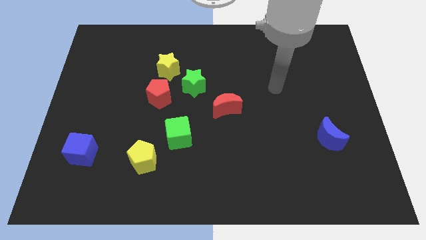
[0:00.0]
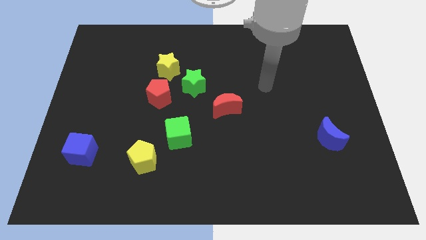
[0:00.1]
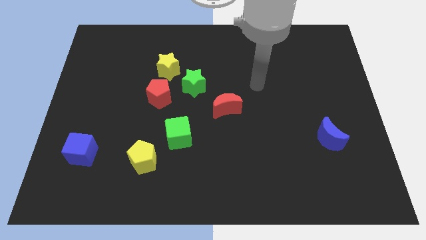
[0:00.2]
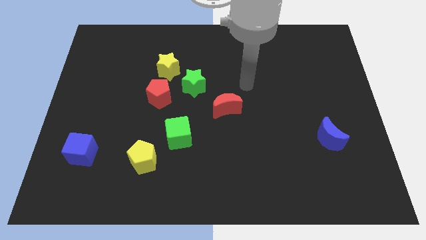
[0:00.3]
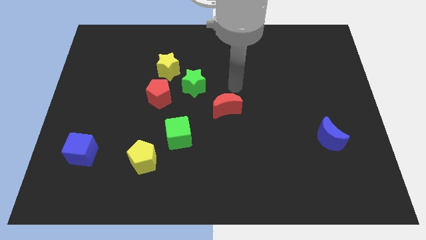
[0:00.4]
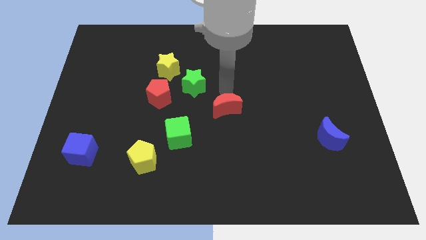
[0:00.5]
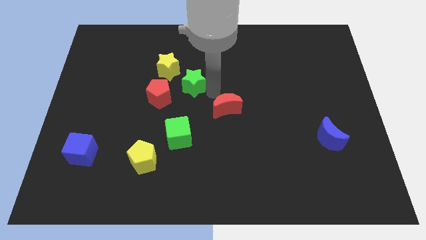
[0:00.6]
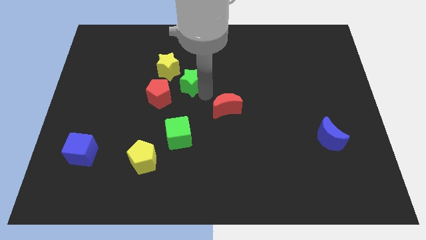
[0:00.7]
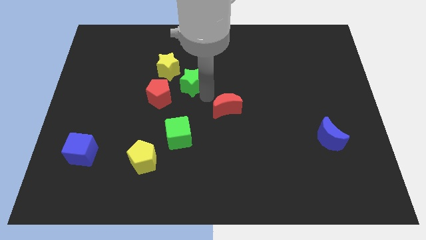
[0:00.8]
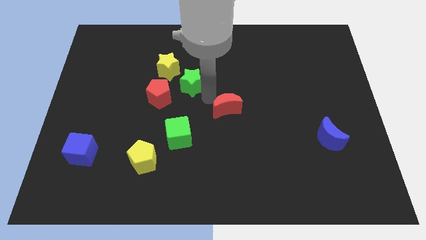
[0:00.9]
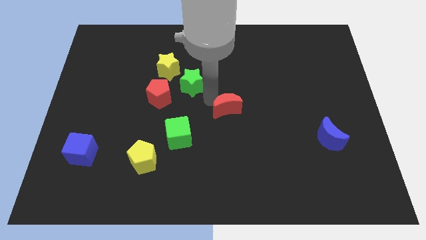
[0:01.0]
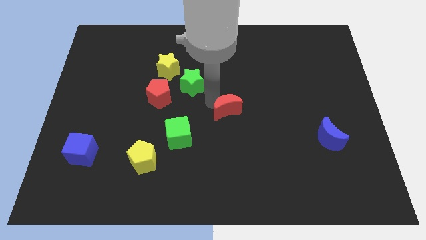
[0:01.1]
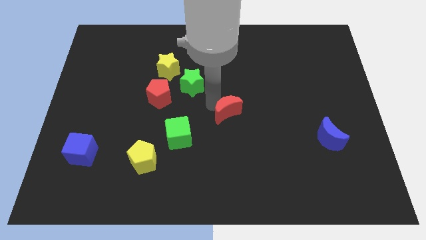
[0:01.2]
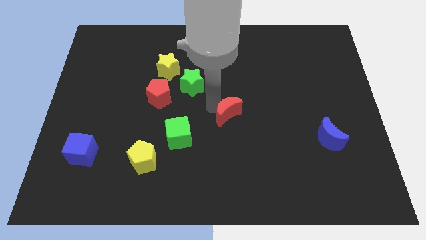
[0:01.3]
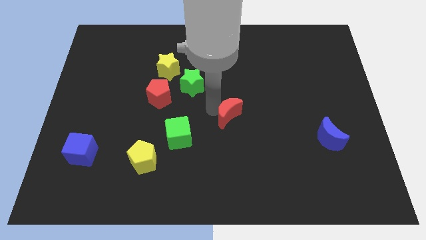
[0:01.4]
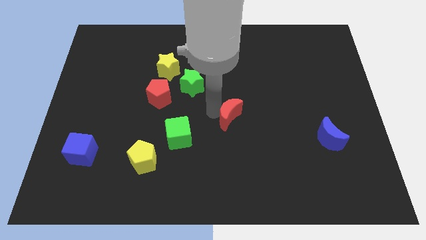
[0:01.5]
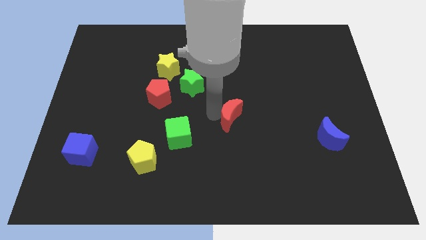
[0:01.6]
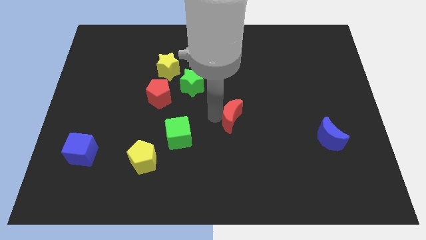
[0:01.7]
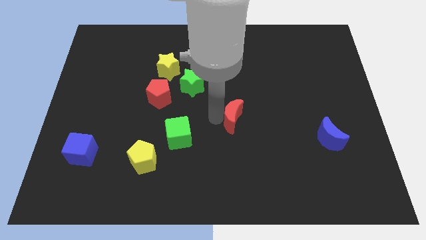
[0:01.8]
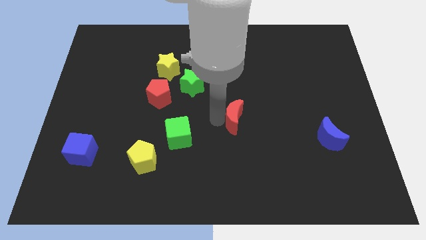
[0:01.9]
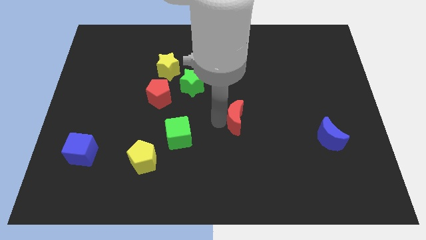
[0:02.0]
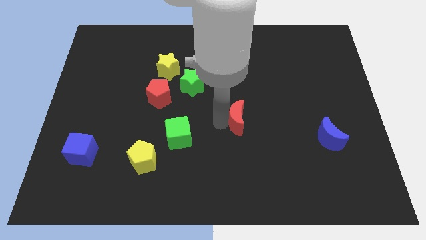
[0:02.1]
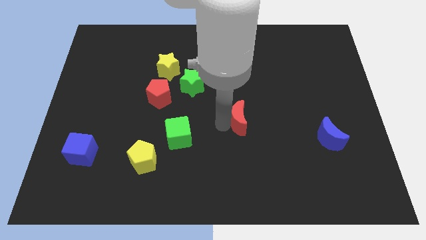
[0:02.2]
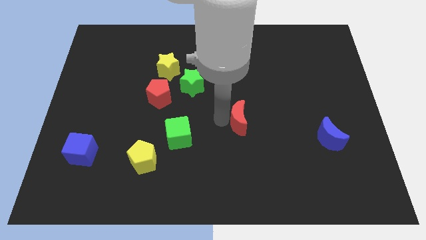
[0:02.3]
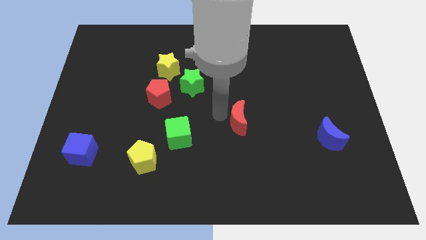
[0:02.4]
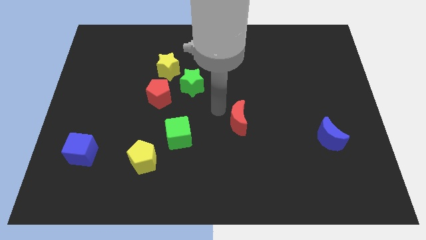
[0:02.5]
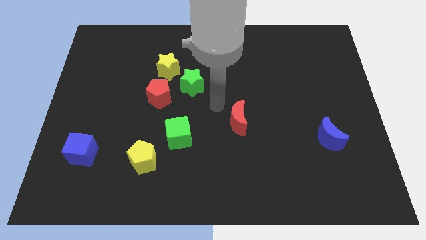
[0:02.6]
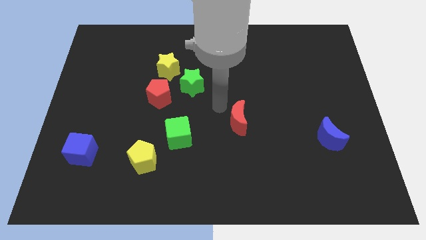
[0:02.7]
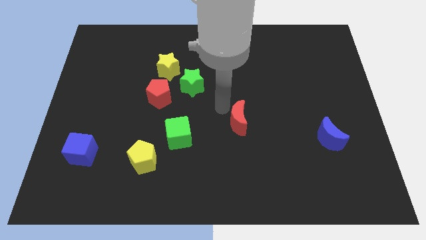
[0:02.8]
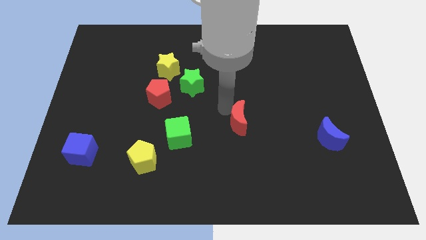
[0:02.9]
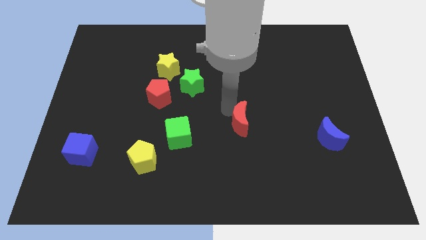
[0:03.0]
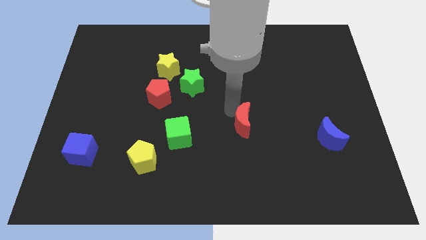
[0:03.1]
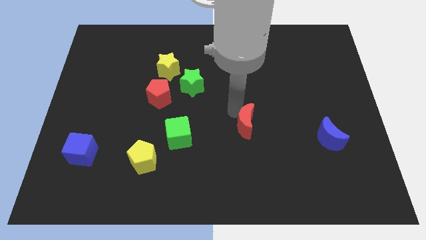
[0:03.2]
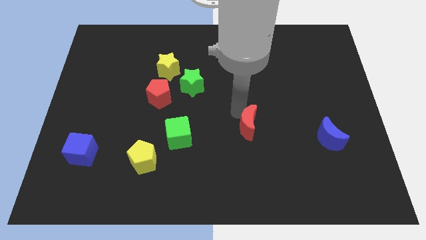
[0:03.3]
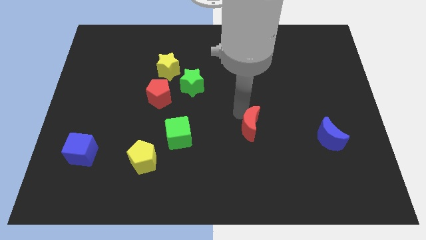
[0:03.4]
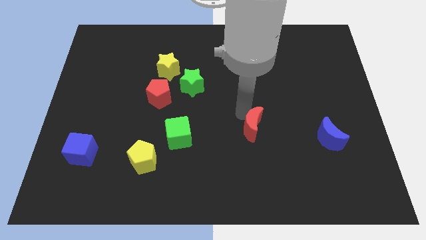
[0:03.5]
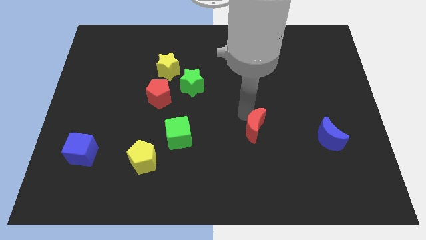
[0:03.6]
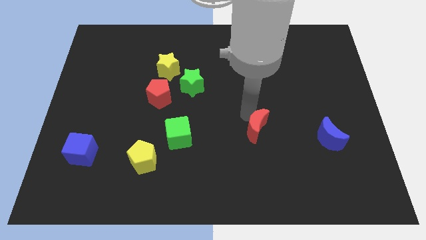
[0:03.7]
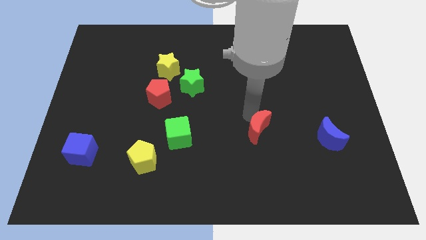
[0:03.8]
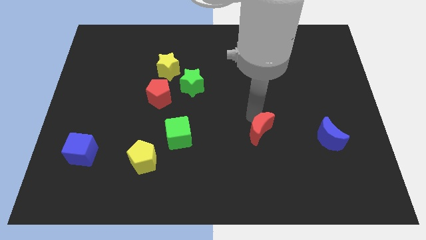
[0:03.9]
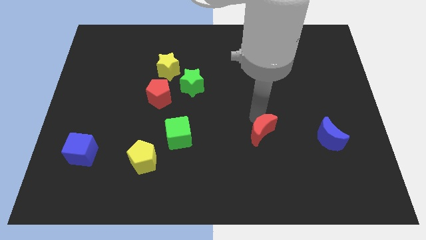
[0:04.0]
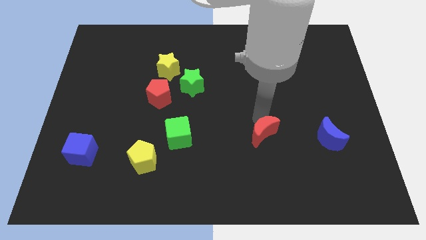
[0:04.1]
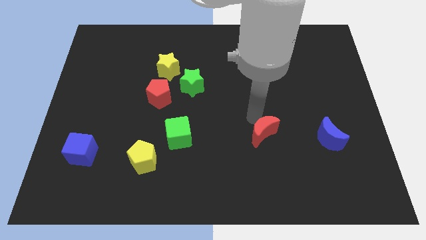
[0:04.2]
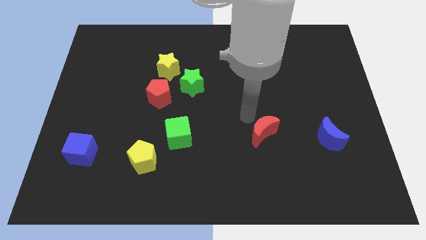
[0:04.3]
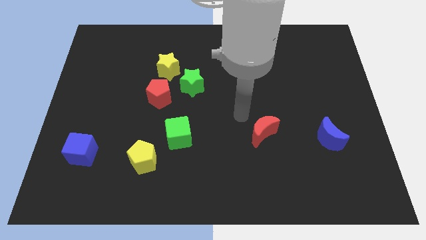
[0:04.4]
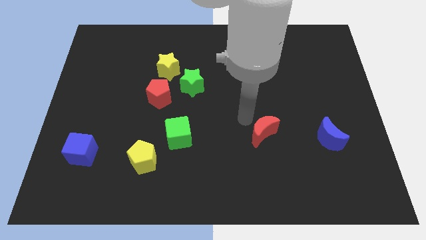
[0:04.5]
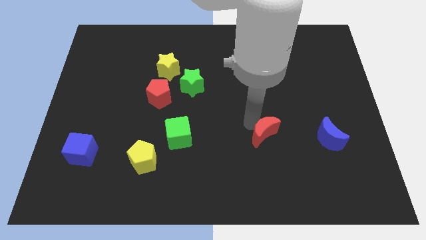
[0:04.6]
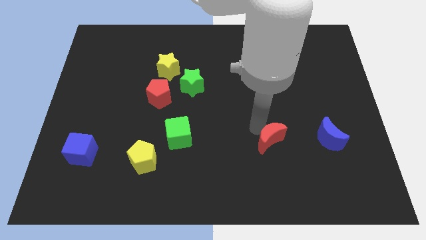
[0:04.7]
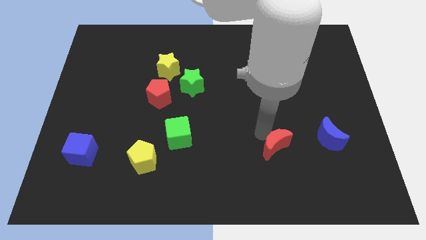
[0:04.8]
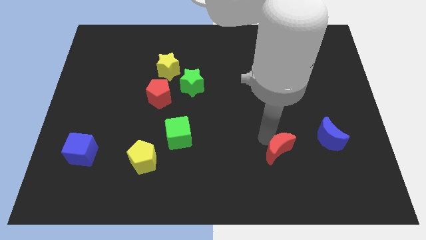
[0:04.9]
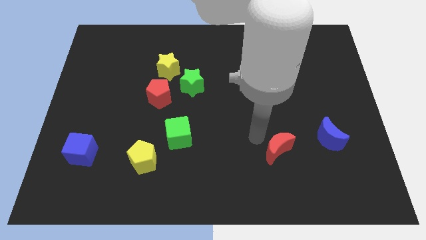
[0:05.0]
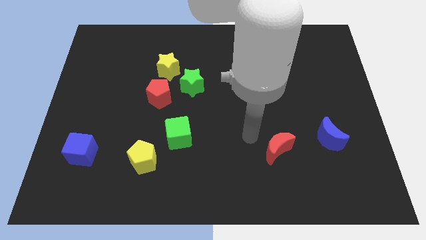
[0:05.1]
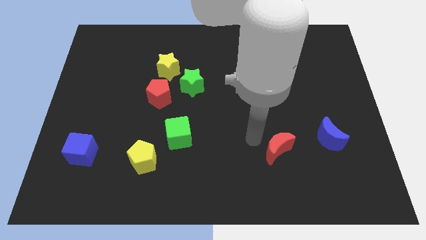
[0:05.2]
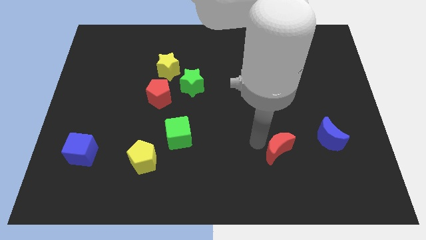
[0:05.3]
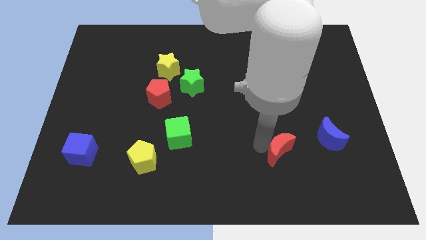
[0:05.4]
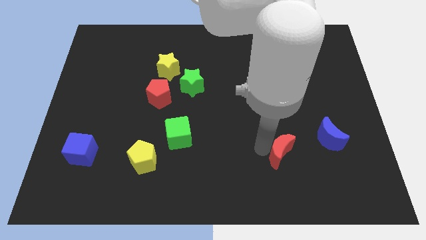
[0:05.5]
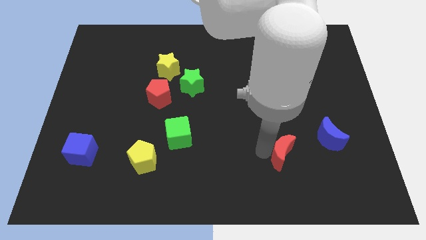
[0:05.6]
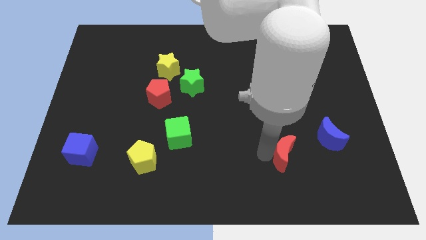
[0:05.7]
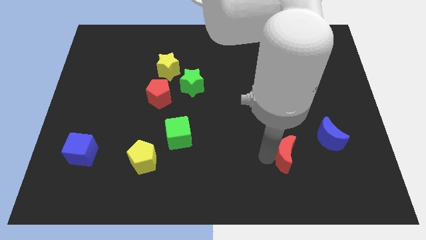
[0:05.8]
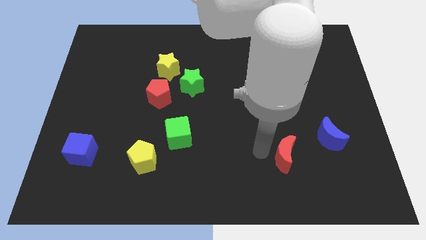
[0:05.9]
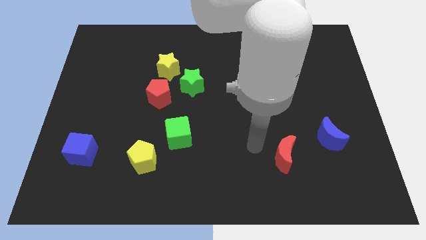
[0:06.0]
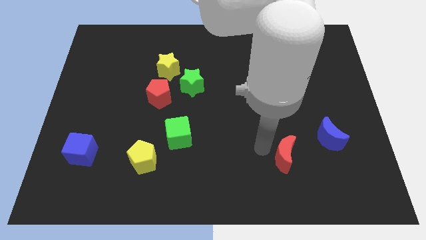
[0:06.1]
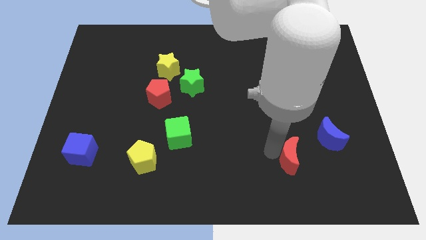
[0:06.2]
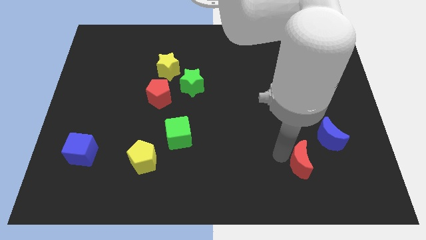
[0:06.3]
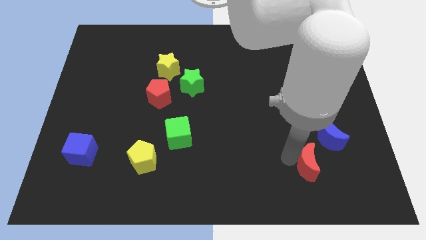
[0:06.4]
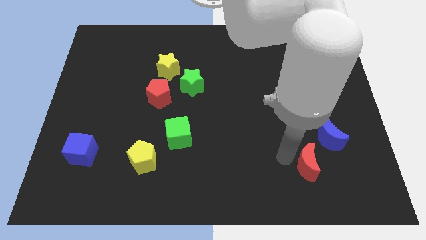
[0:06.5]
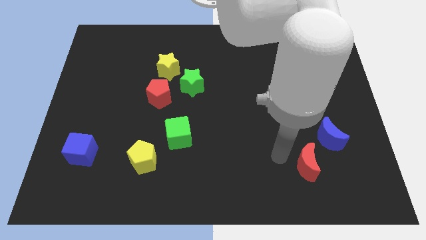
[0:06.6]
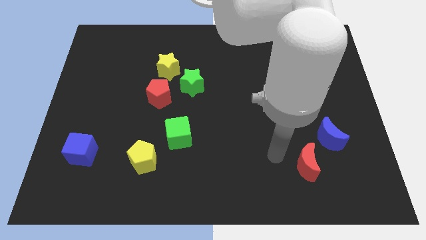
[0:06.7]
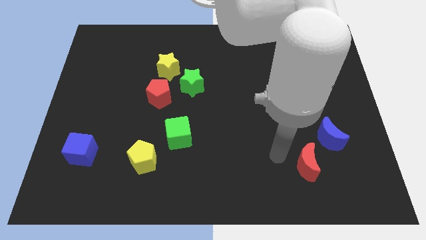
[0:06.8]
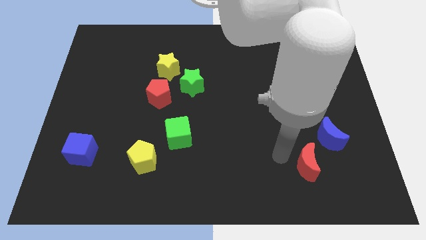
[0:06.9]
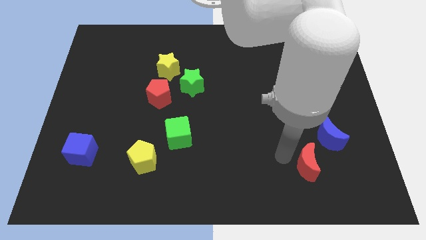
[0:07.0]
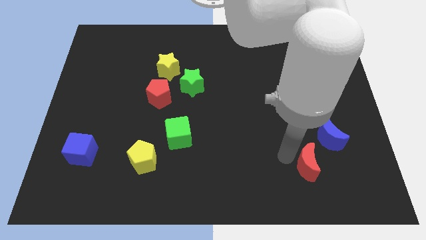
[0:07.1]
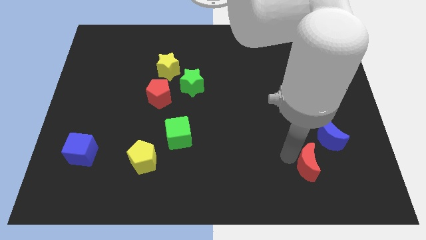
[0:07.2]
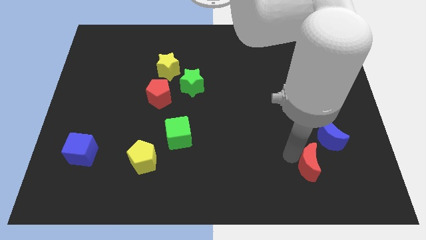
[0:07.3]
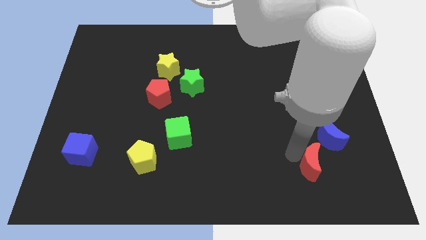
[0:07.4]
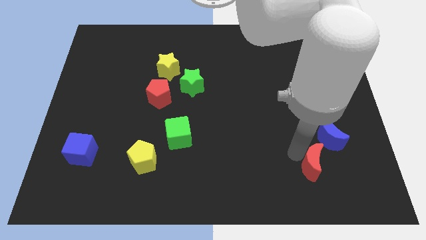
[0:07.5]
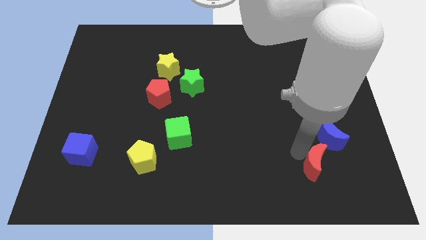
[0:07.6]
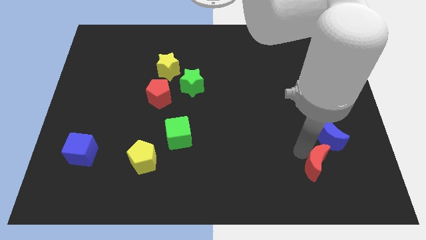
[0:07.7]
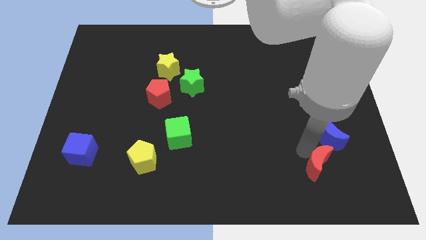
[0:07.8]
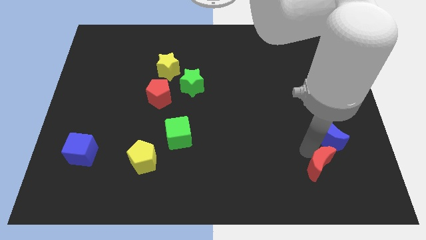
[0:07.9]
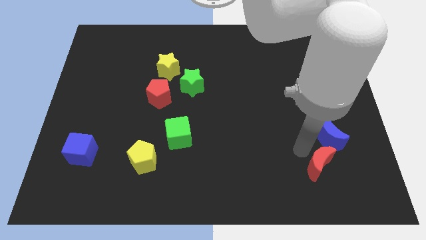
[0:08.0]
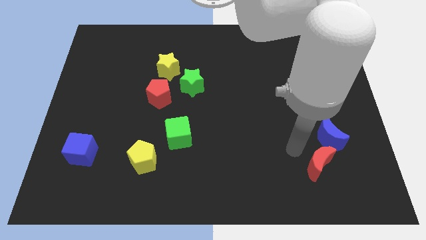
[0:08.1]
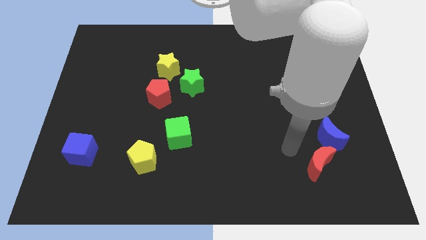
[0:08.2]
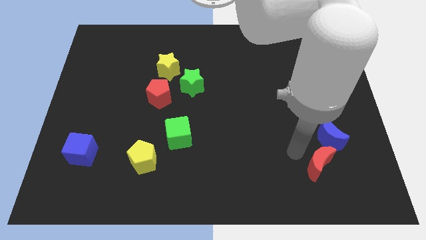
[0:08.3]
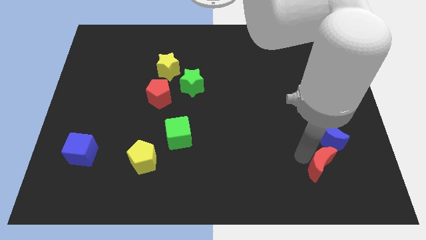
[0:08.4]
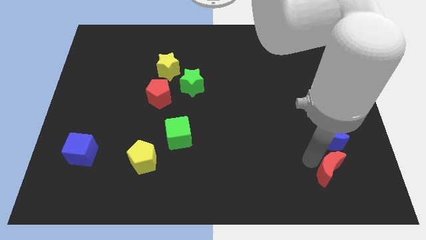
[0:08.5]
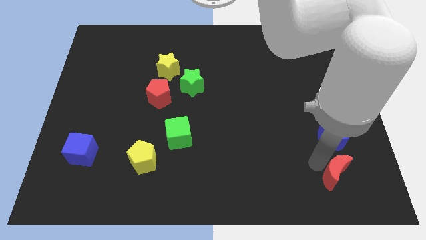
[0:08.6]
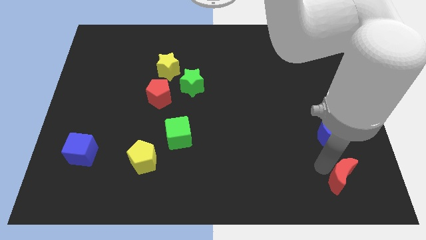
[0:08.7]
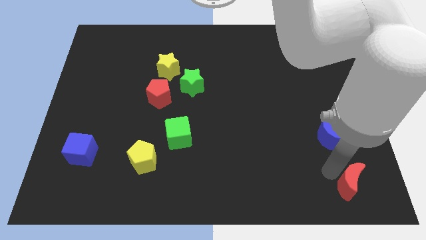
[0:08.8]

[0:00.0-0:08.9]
push the red moon to the bottom right corner
